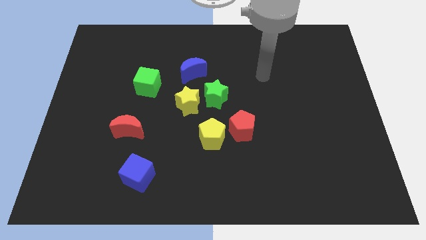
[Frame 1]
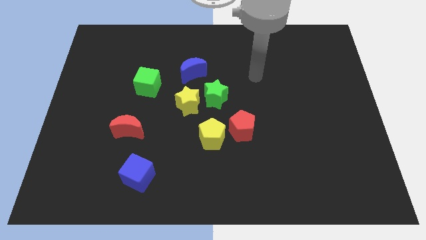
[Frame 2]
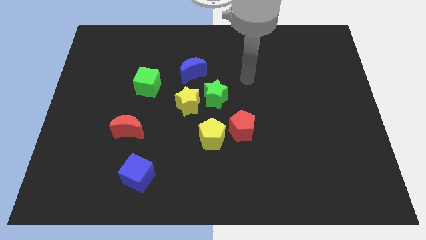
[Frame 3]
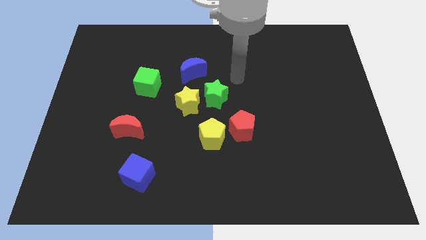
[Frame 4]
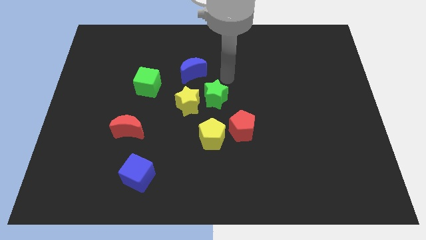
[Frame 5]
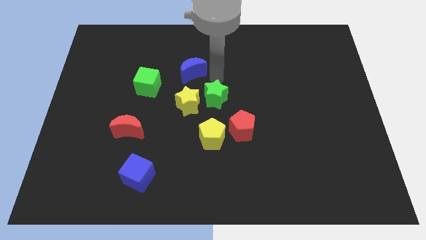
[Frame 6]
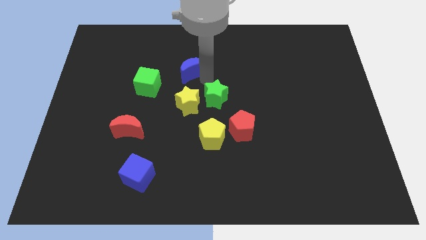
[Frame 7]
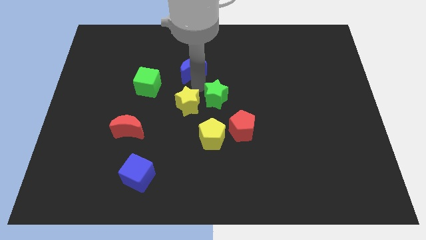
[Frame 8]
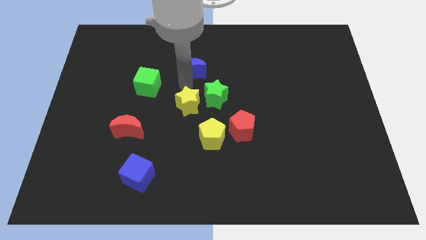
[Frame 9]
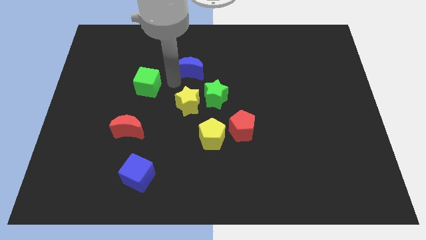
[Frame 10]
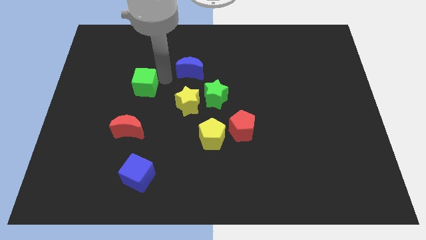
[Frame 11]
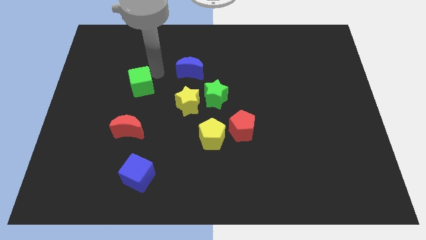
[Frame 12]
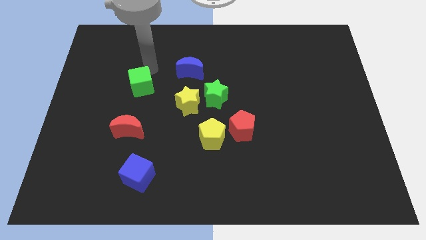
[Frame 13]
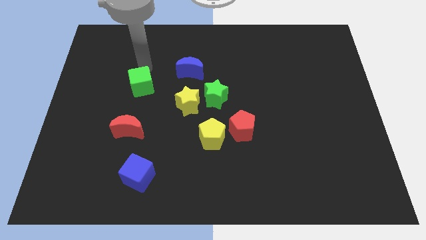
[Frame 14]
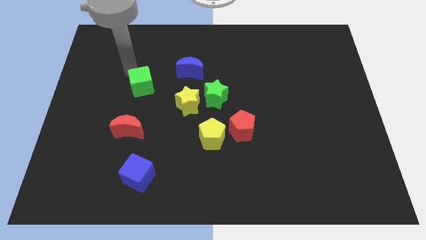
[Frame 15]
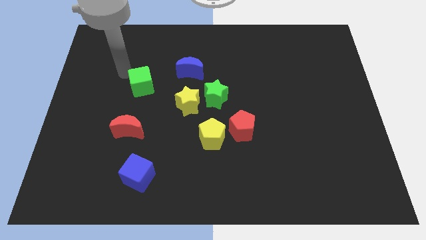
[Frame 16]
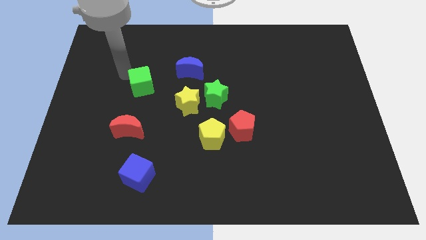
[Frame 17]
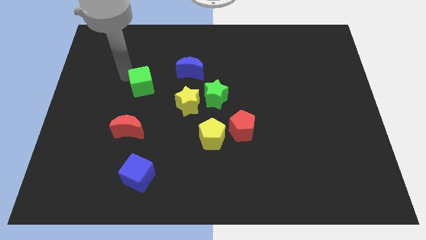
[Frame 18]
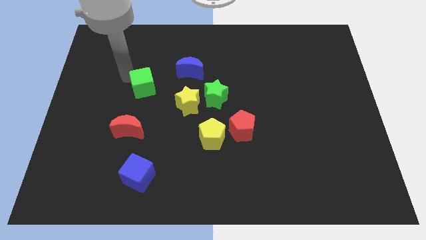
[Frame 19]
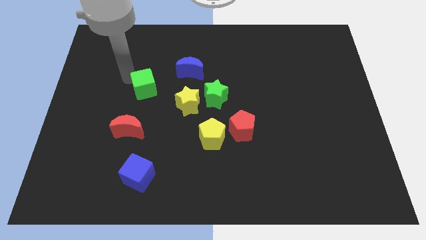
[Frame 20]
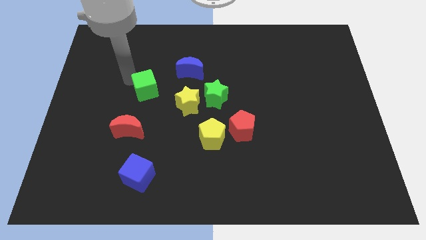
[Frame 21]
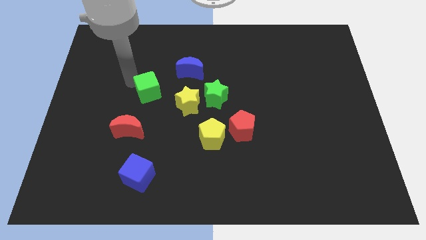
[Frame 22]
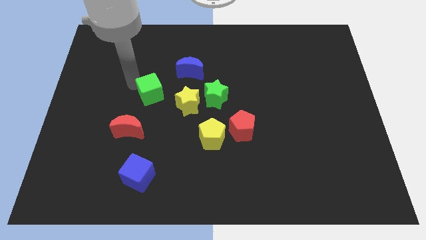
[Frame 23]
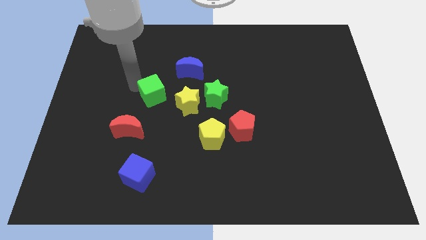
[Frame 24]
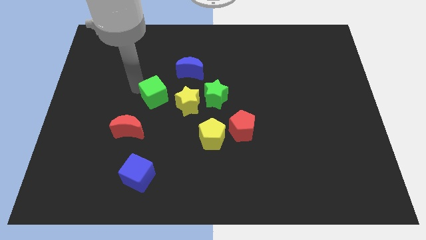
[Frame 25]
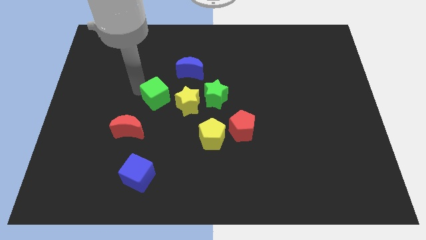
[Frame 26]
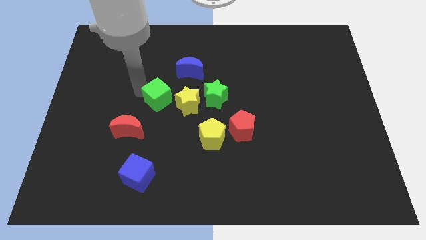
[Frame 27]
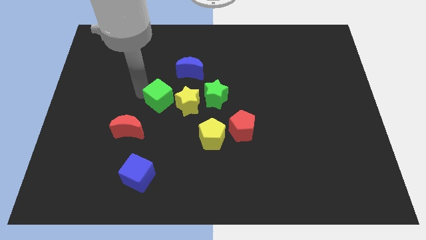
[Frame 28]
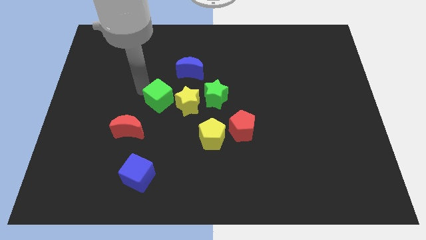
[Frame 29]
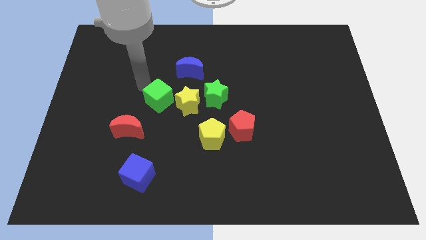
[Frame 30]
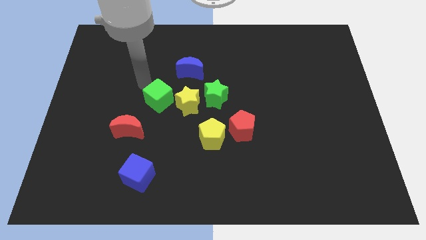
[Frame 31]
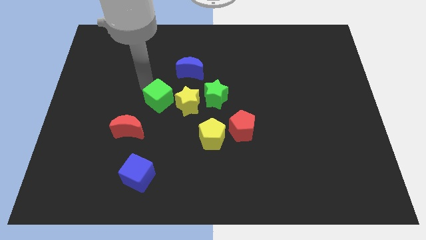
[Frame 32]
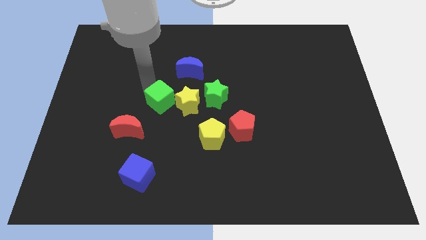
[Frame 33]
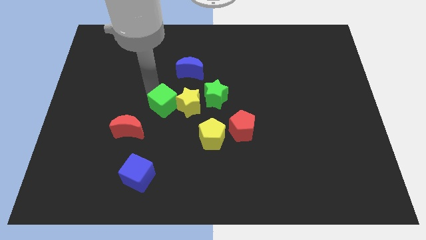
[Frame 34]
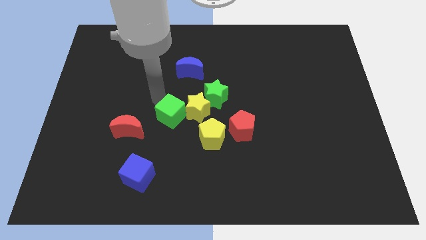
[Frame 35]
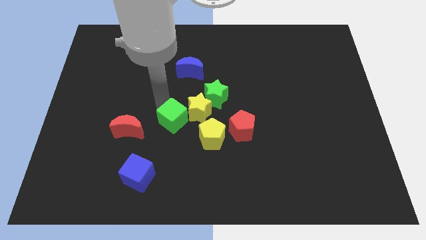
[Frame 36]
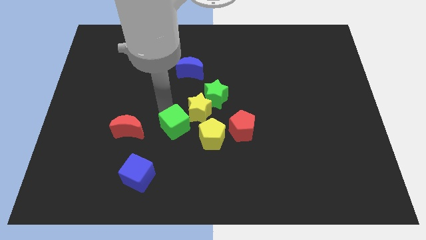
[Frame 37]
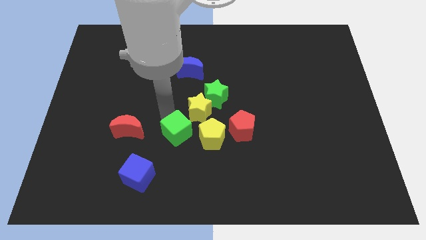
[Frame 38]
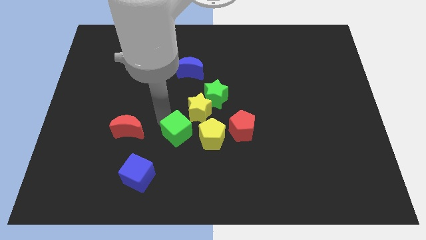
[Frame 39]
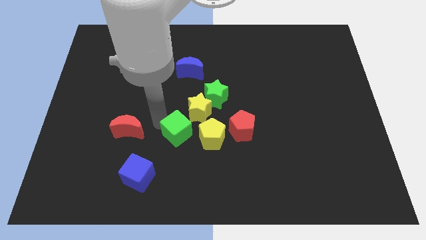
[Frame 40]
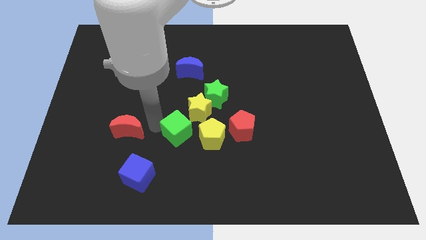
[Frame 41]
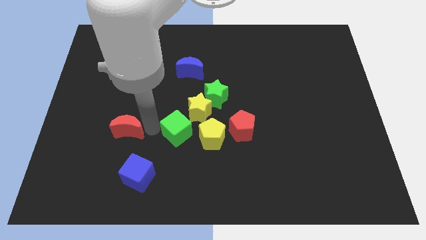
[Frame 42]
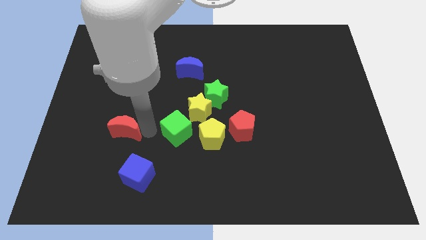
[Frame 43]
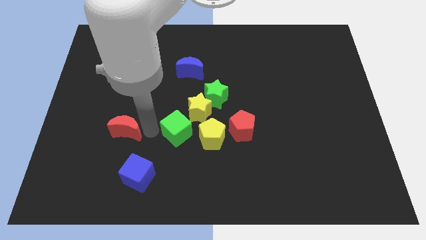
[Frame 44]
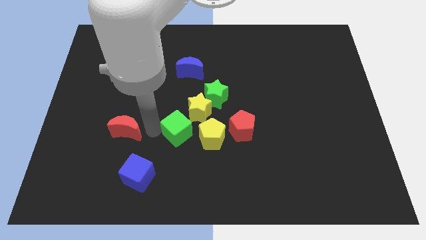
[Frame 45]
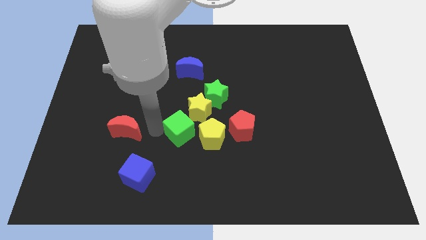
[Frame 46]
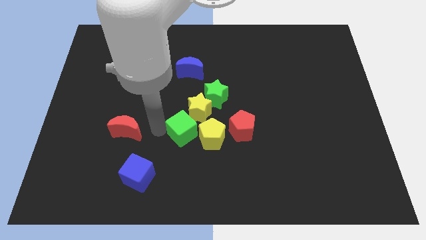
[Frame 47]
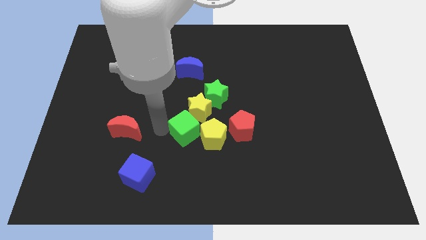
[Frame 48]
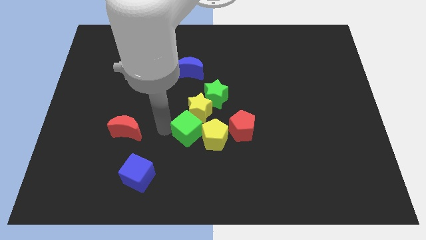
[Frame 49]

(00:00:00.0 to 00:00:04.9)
slide the green cube to the yellow pentagon

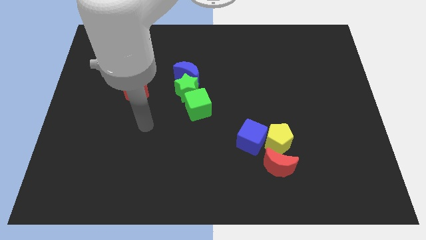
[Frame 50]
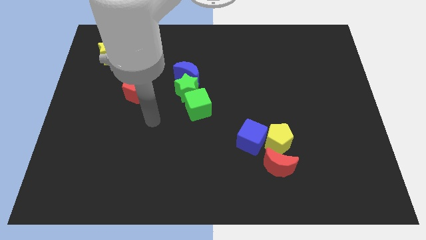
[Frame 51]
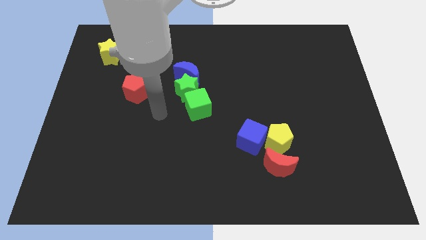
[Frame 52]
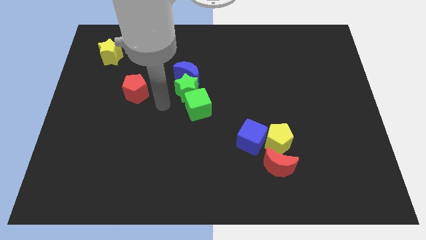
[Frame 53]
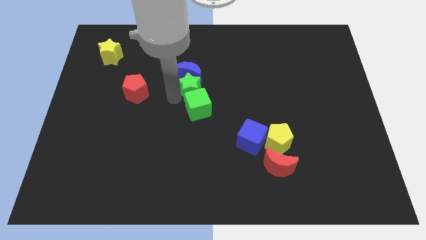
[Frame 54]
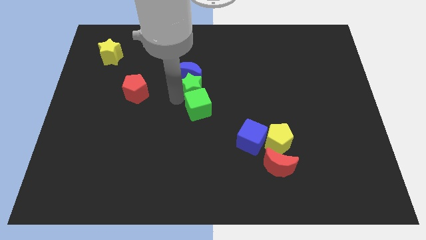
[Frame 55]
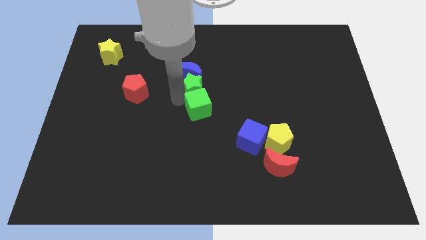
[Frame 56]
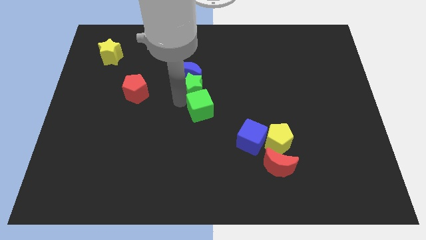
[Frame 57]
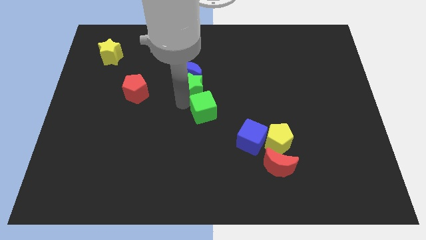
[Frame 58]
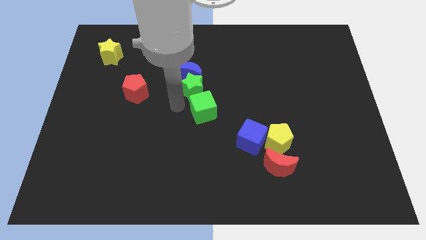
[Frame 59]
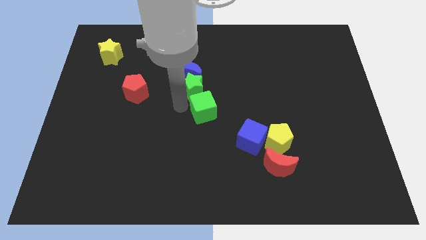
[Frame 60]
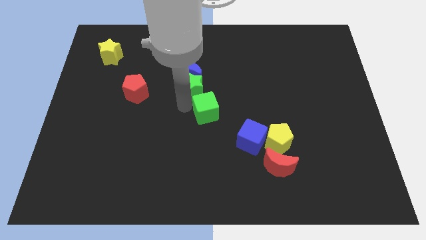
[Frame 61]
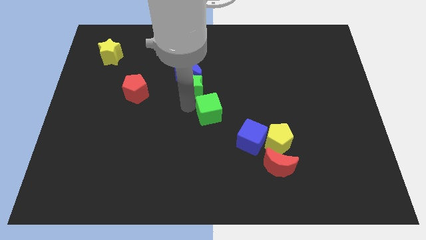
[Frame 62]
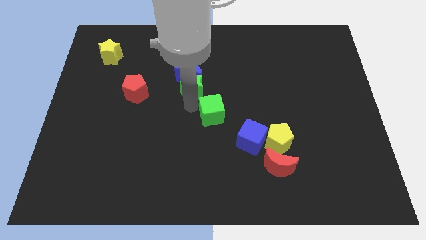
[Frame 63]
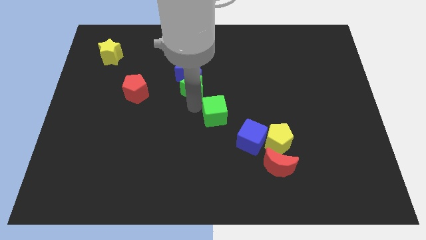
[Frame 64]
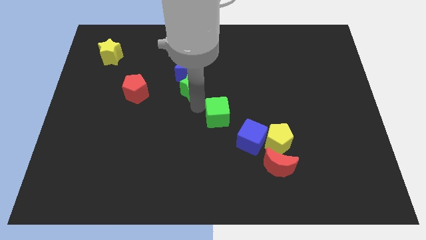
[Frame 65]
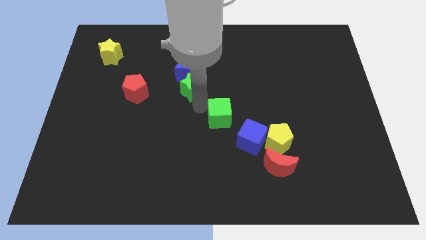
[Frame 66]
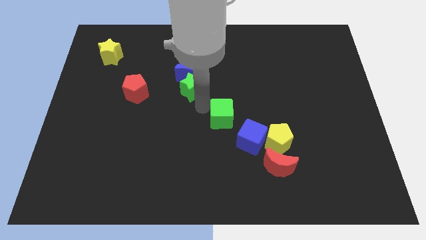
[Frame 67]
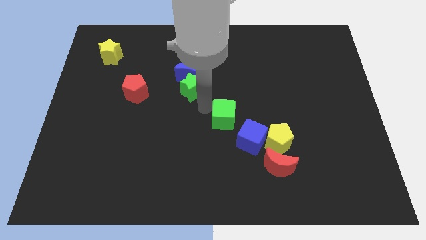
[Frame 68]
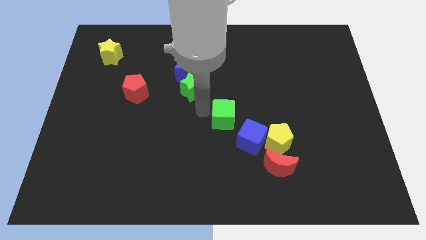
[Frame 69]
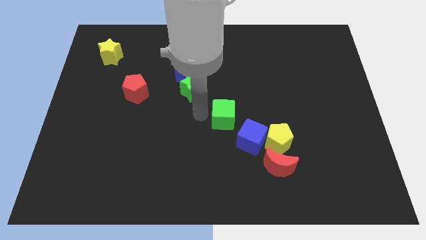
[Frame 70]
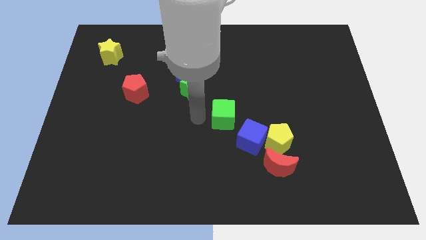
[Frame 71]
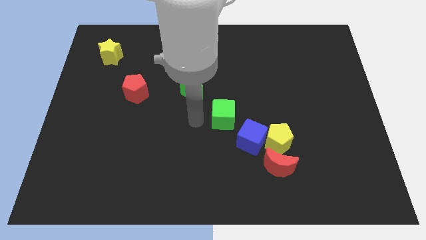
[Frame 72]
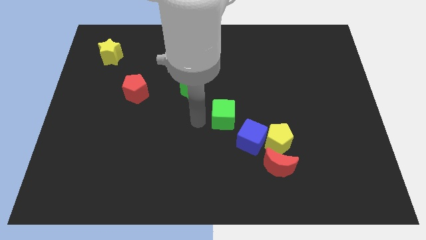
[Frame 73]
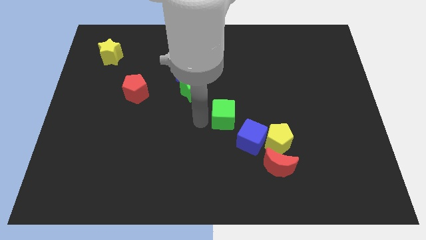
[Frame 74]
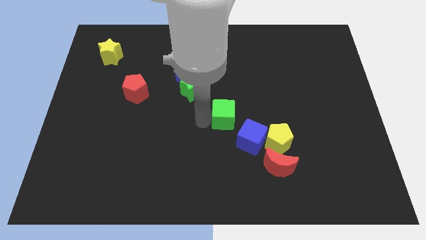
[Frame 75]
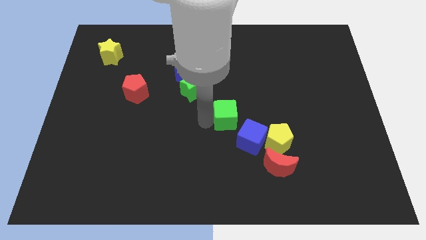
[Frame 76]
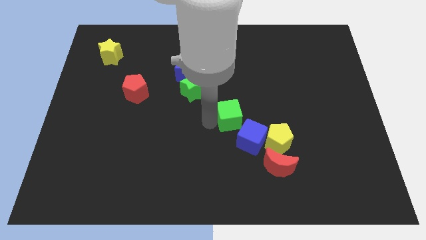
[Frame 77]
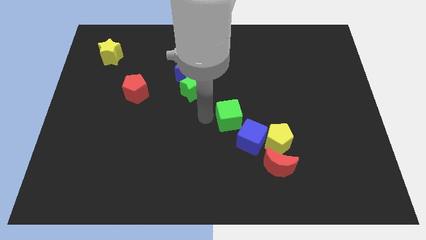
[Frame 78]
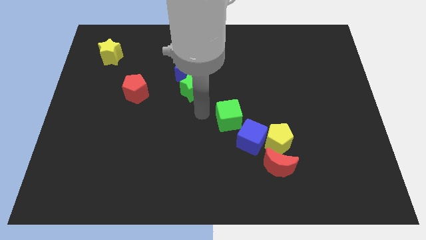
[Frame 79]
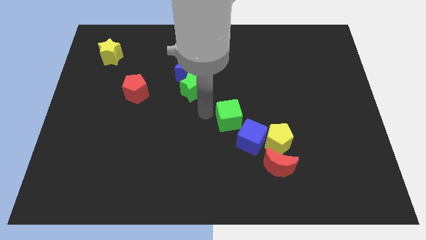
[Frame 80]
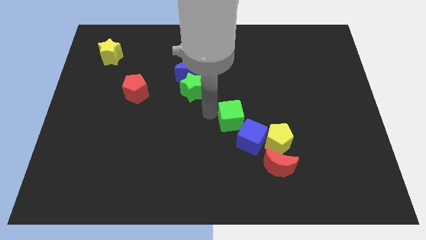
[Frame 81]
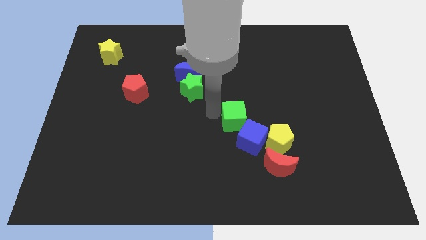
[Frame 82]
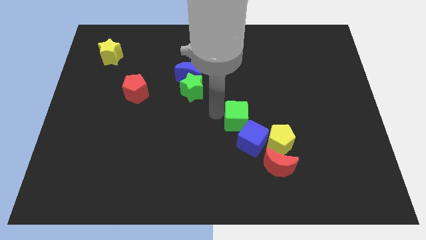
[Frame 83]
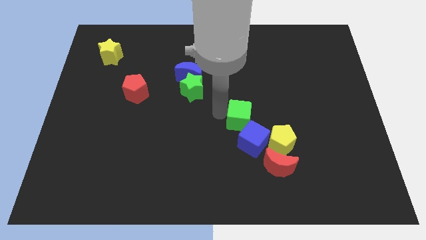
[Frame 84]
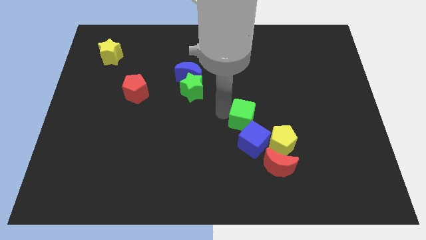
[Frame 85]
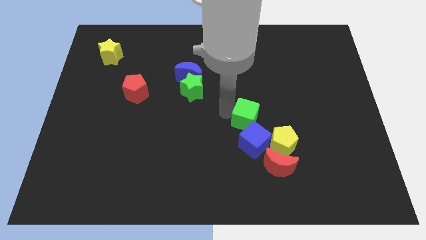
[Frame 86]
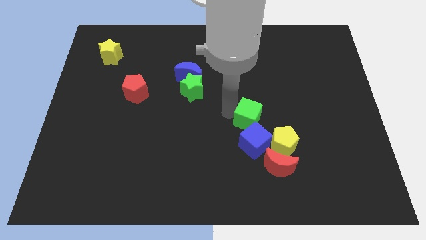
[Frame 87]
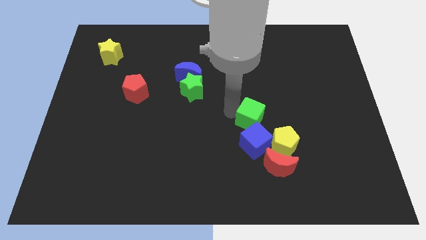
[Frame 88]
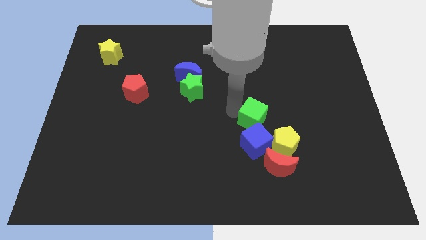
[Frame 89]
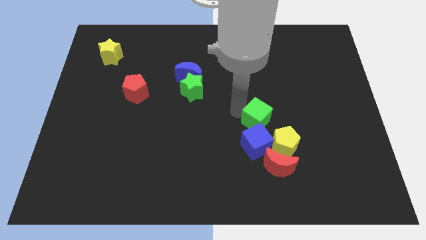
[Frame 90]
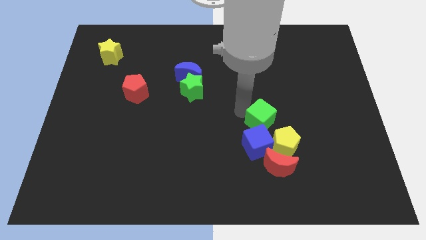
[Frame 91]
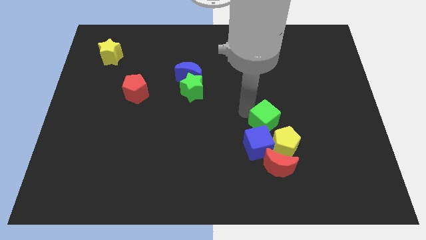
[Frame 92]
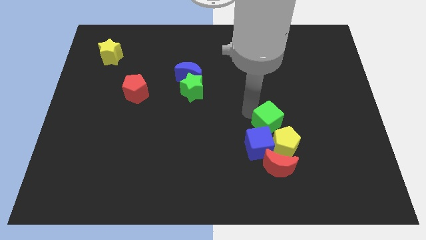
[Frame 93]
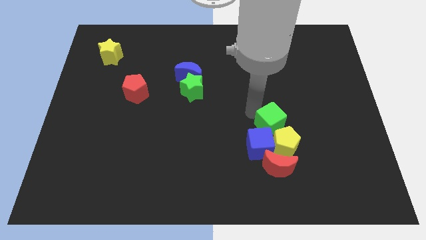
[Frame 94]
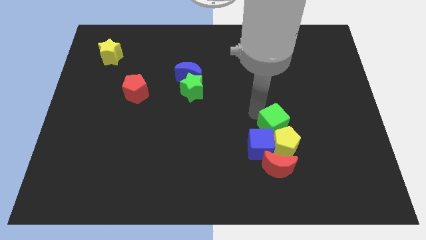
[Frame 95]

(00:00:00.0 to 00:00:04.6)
move the green cube towards the yellow pentagon
